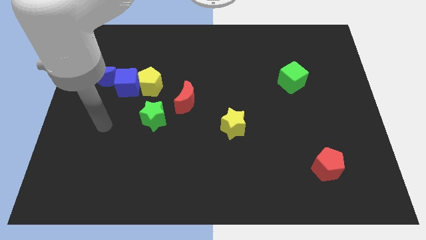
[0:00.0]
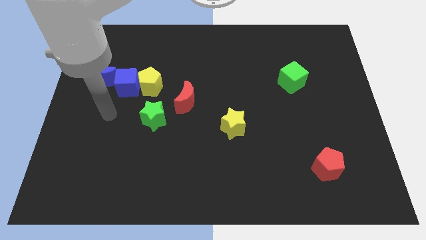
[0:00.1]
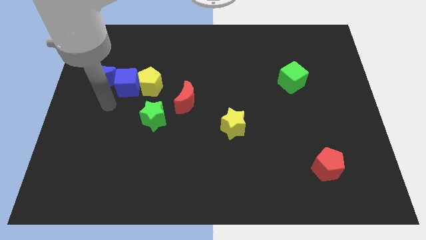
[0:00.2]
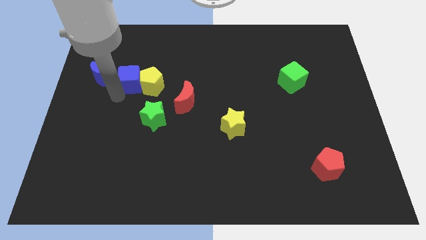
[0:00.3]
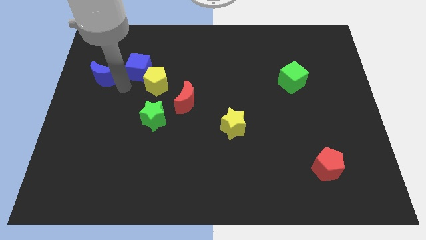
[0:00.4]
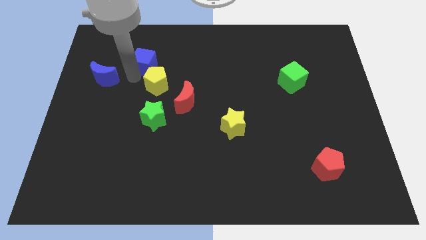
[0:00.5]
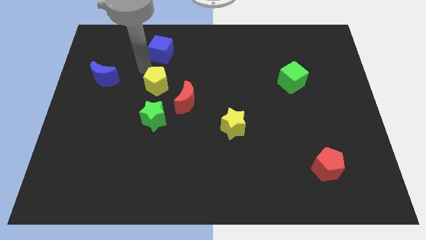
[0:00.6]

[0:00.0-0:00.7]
separate the yellow pentagon from the blue cube

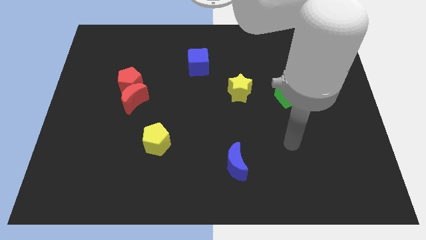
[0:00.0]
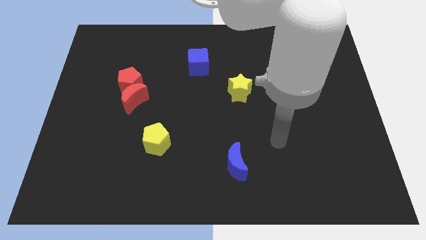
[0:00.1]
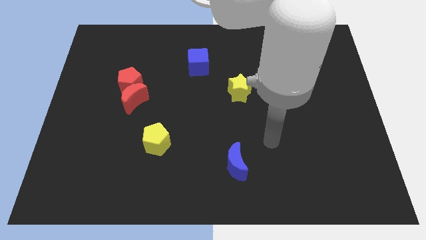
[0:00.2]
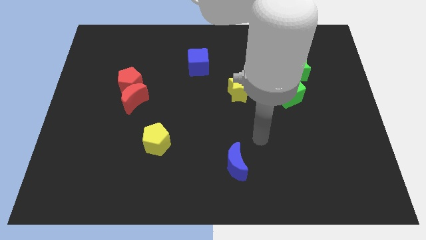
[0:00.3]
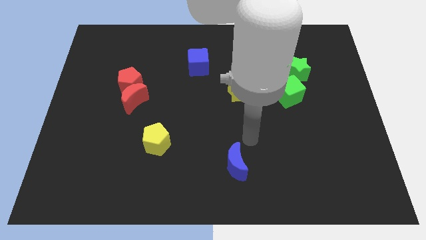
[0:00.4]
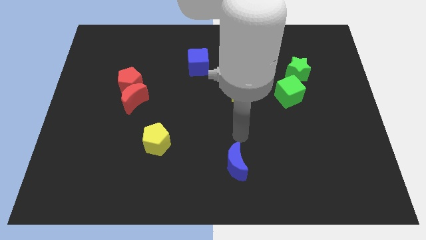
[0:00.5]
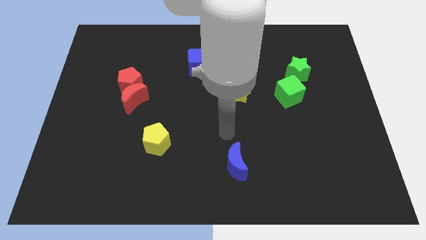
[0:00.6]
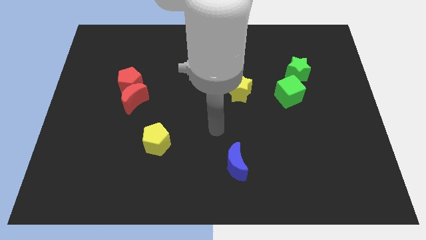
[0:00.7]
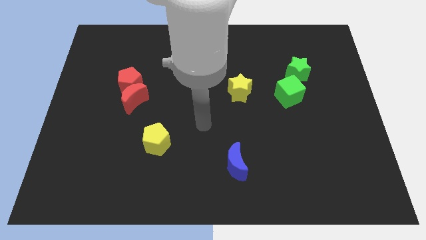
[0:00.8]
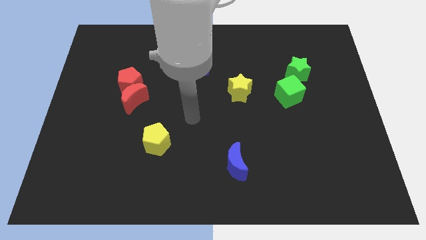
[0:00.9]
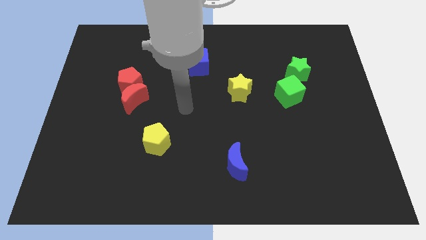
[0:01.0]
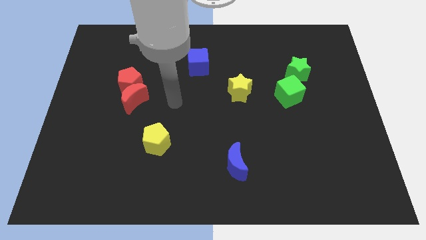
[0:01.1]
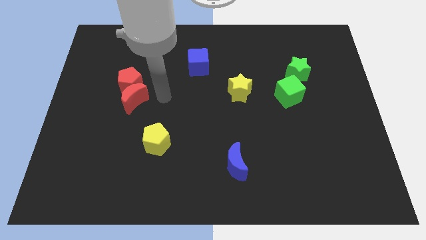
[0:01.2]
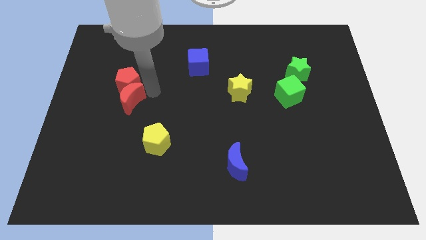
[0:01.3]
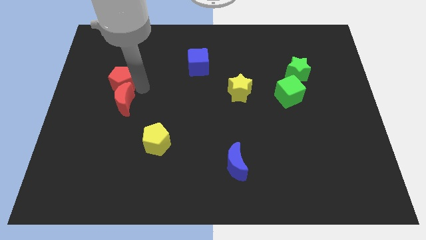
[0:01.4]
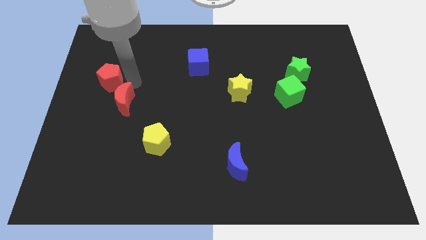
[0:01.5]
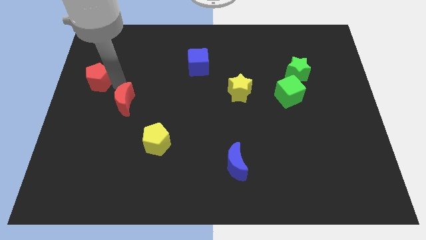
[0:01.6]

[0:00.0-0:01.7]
separate the red moon from the red pentagon

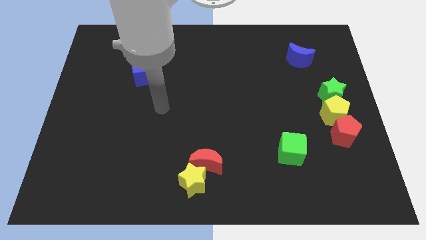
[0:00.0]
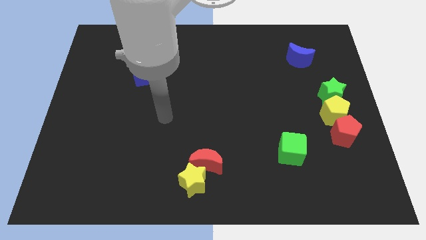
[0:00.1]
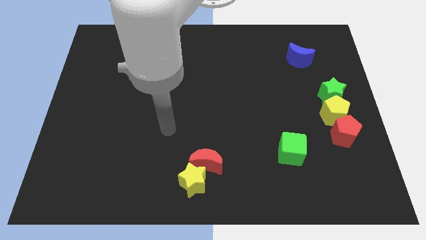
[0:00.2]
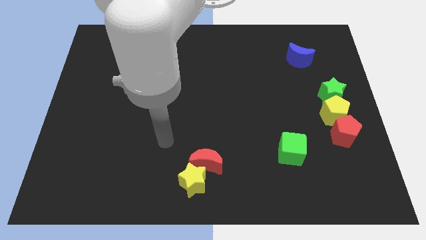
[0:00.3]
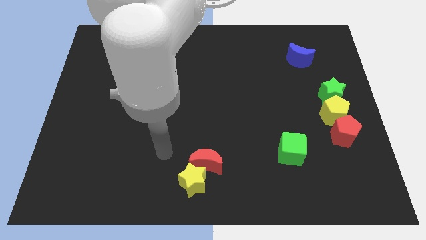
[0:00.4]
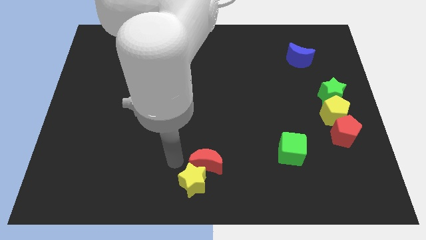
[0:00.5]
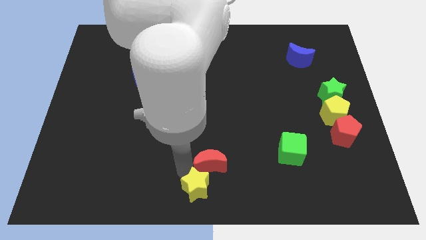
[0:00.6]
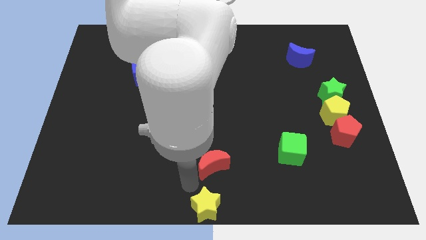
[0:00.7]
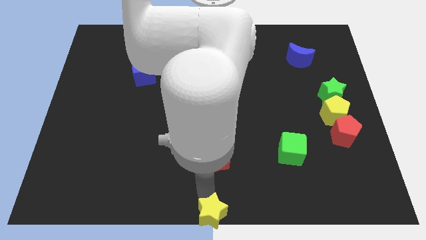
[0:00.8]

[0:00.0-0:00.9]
separate the red moon from the yellow star

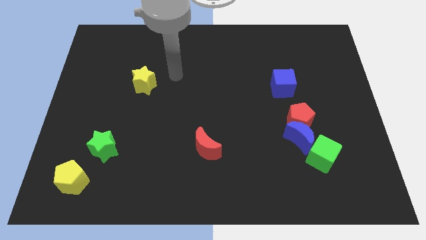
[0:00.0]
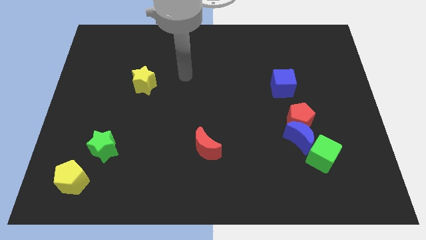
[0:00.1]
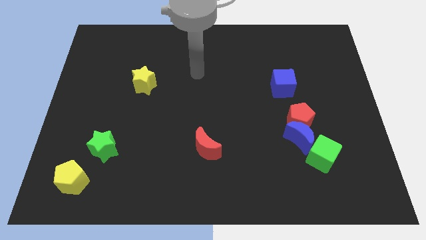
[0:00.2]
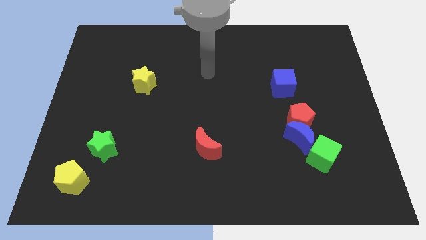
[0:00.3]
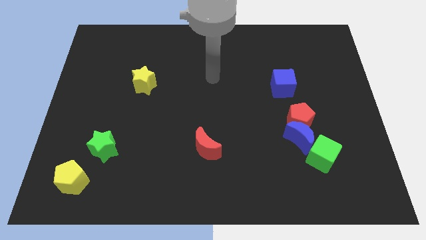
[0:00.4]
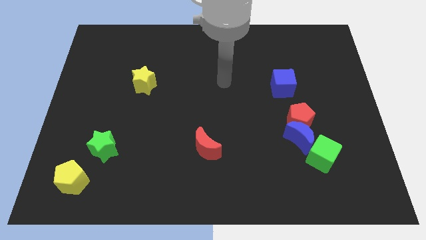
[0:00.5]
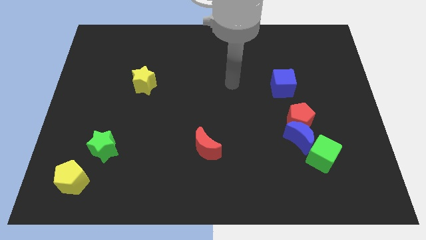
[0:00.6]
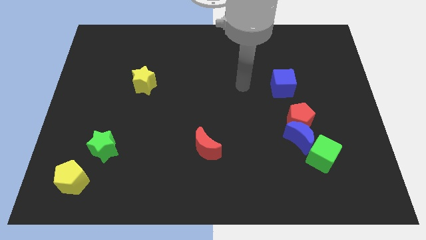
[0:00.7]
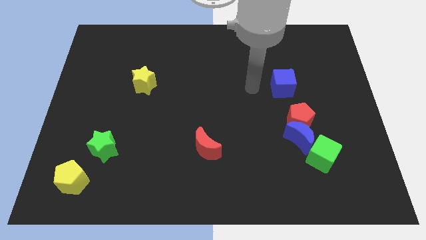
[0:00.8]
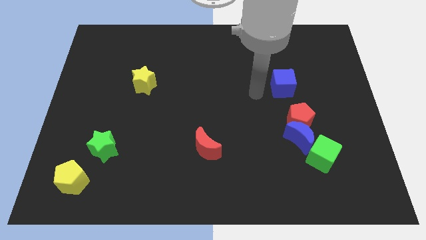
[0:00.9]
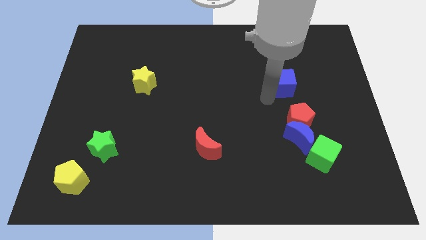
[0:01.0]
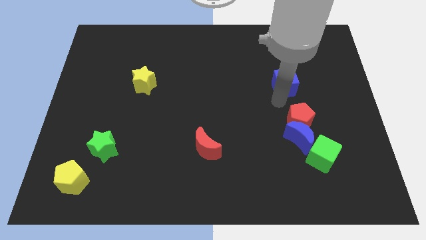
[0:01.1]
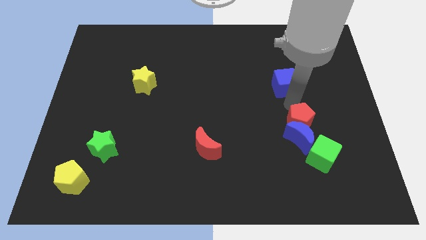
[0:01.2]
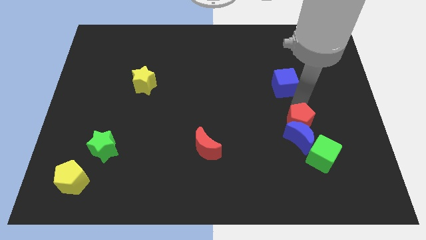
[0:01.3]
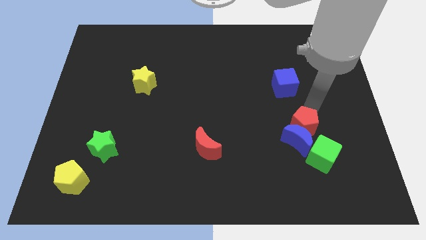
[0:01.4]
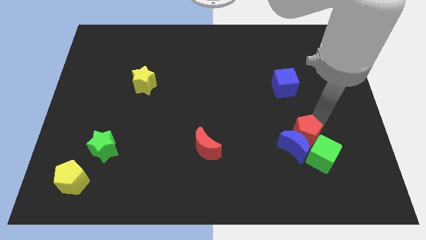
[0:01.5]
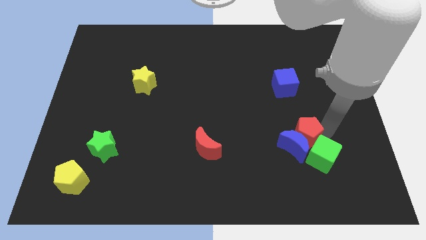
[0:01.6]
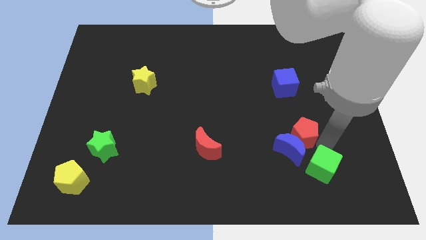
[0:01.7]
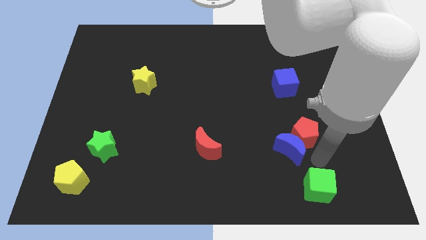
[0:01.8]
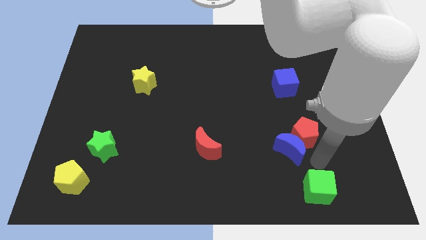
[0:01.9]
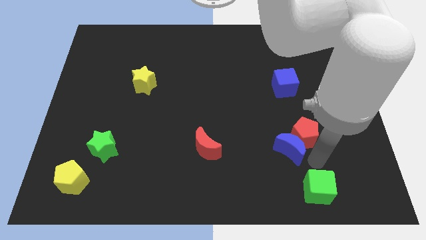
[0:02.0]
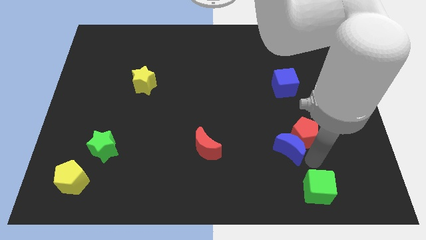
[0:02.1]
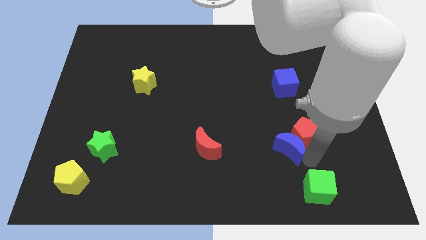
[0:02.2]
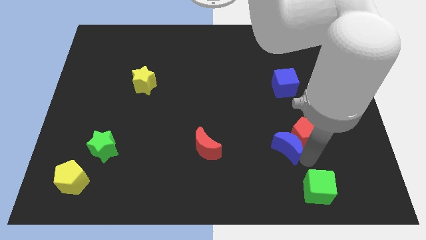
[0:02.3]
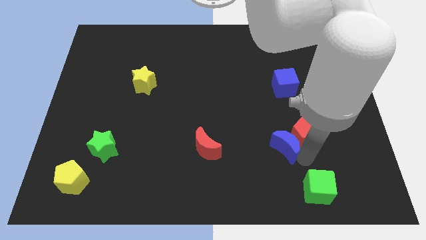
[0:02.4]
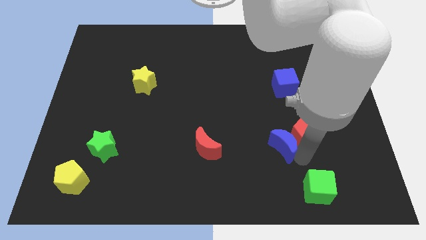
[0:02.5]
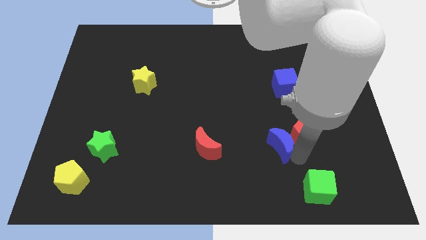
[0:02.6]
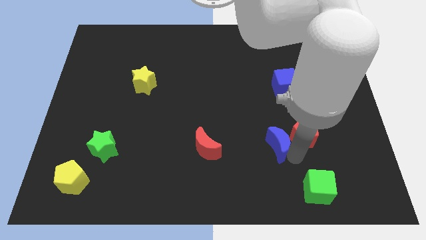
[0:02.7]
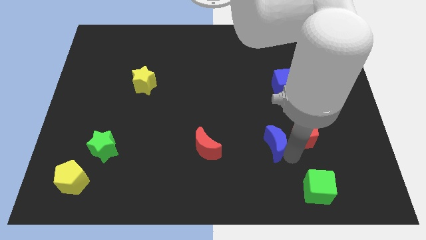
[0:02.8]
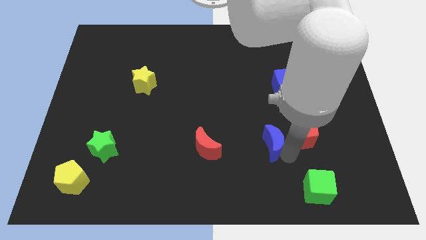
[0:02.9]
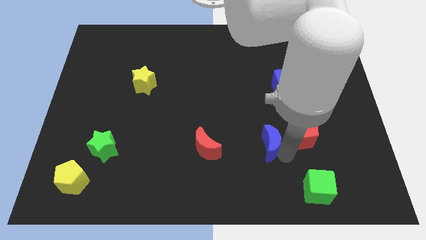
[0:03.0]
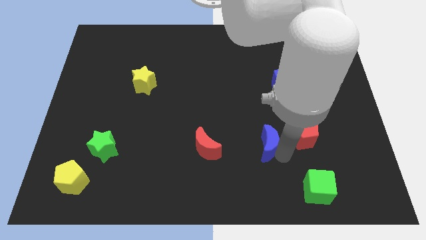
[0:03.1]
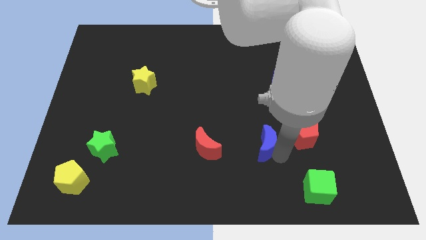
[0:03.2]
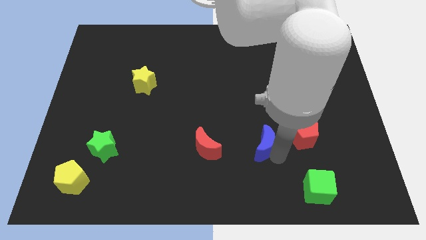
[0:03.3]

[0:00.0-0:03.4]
move the blue moon away from the red pentagon and green cube

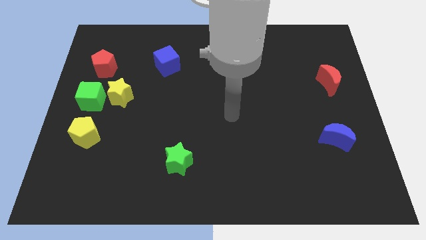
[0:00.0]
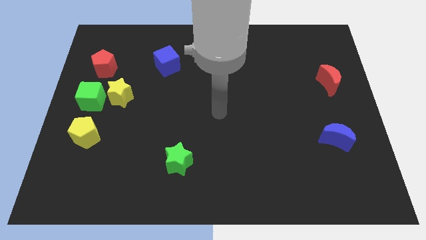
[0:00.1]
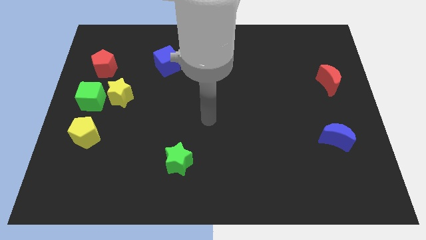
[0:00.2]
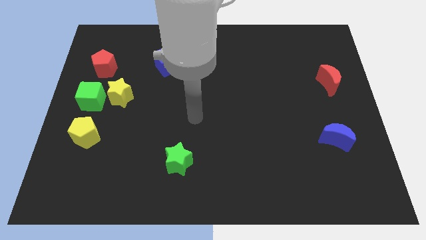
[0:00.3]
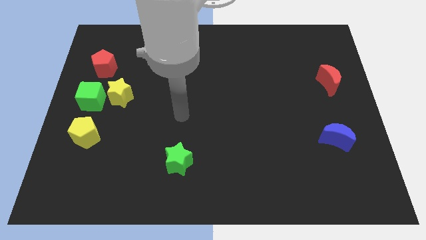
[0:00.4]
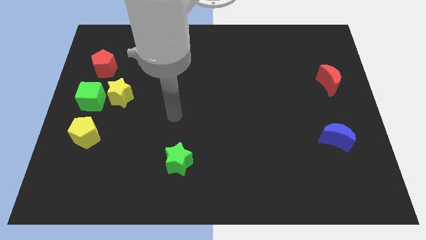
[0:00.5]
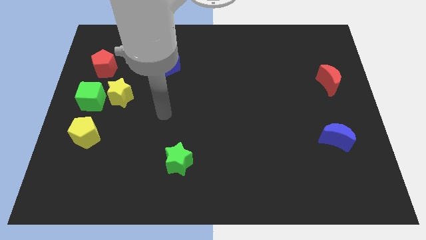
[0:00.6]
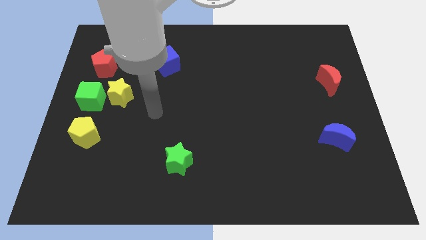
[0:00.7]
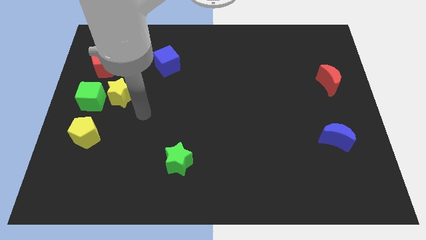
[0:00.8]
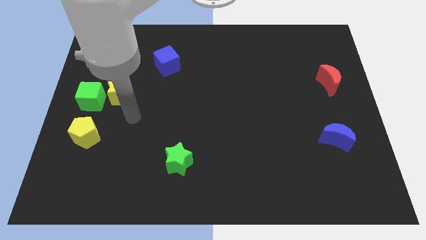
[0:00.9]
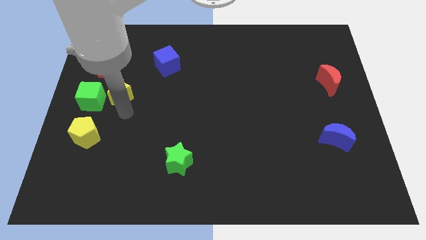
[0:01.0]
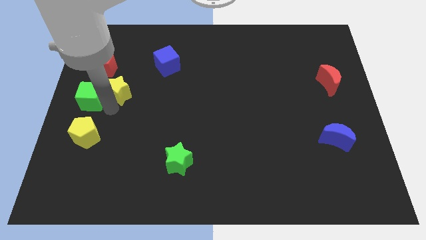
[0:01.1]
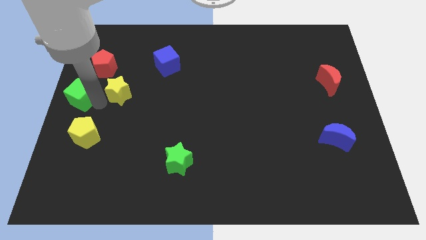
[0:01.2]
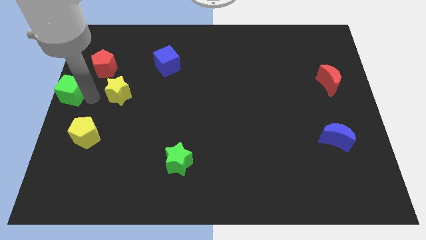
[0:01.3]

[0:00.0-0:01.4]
move the yellow star away from the green cube

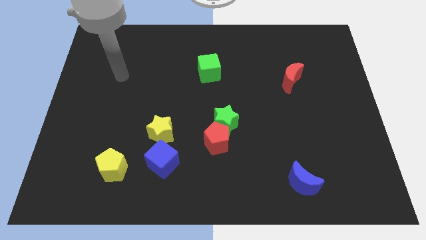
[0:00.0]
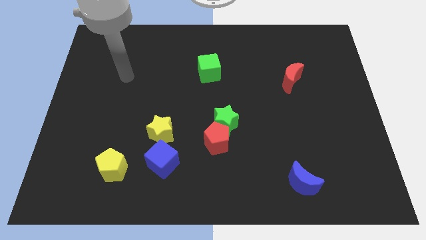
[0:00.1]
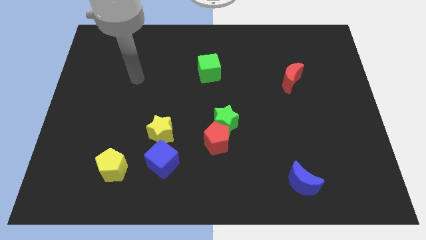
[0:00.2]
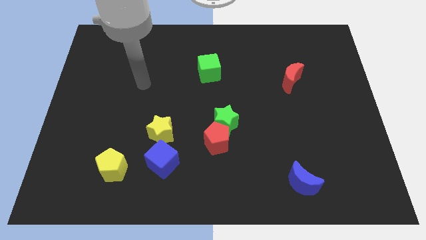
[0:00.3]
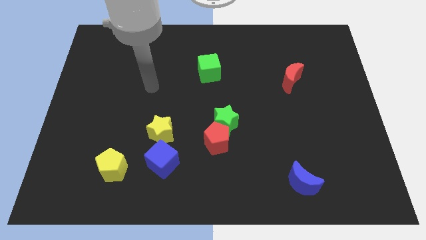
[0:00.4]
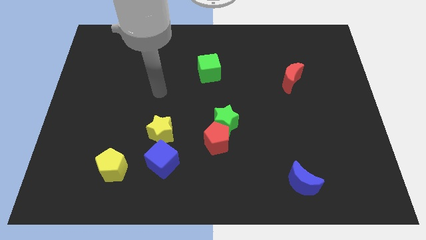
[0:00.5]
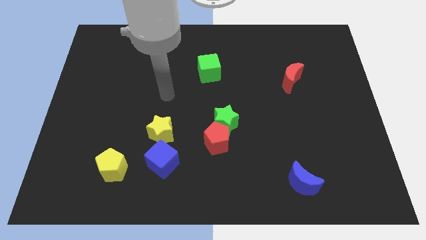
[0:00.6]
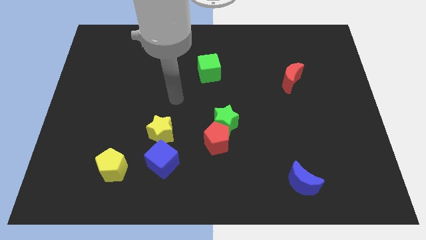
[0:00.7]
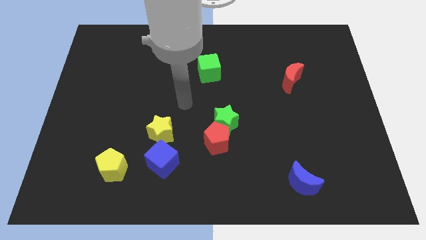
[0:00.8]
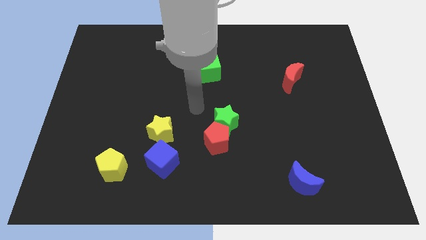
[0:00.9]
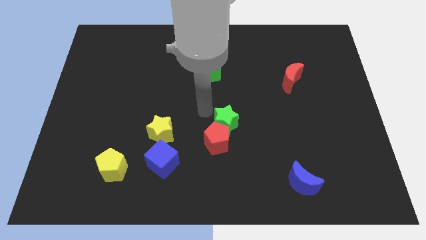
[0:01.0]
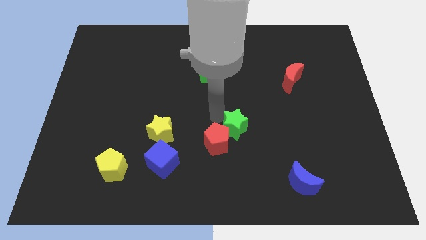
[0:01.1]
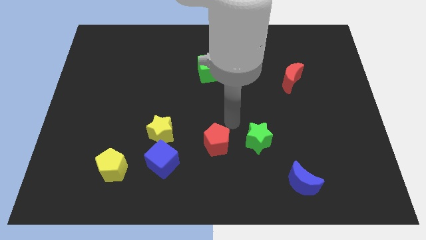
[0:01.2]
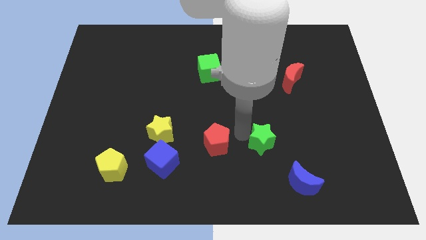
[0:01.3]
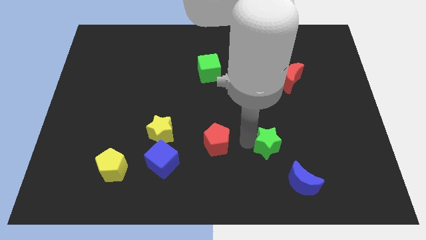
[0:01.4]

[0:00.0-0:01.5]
move the red pentagon away from the green star
